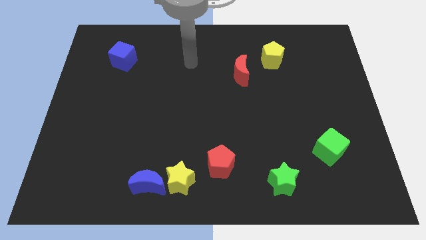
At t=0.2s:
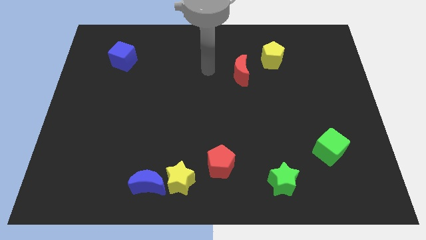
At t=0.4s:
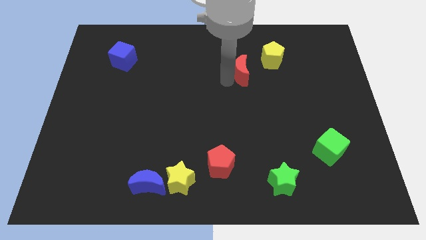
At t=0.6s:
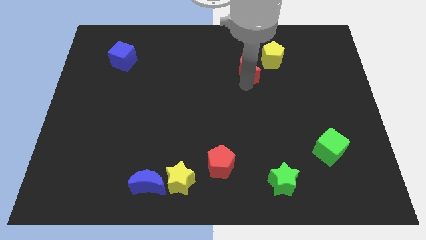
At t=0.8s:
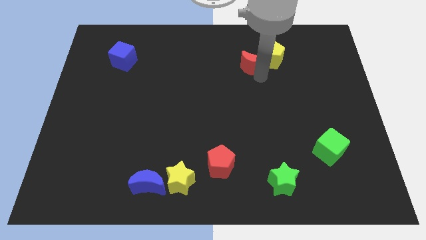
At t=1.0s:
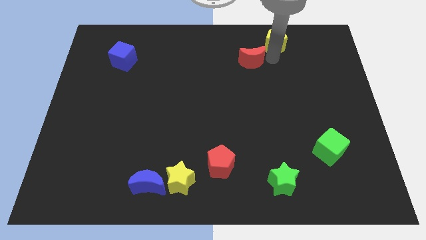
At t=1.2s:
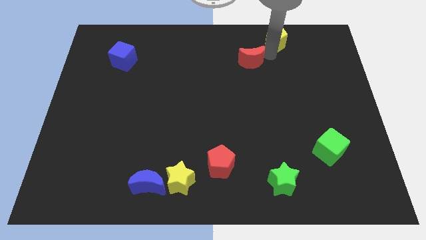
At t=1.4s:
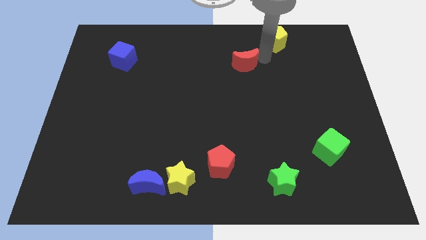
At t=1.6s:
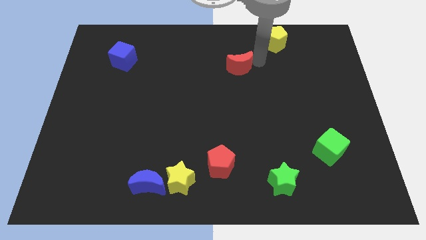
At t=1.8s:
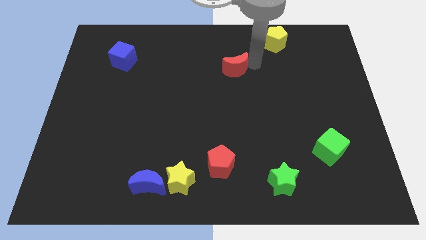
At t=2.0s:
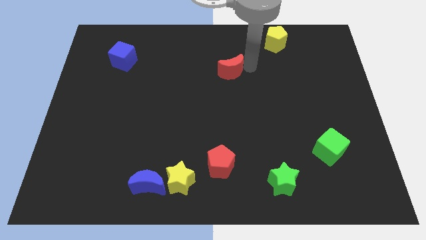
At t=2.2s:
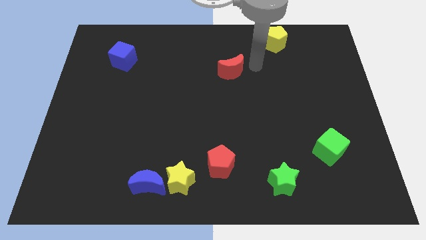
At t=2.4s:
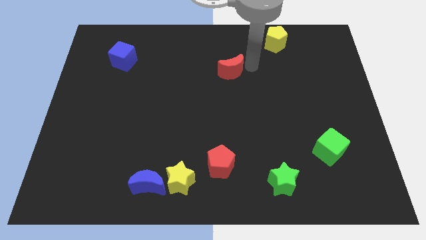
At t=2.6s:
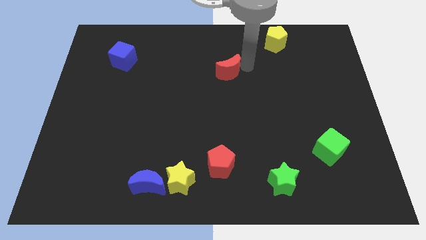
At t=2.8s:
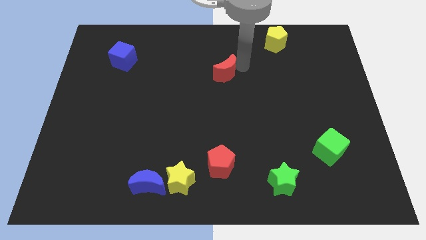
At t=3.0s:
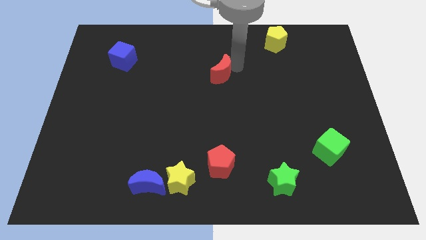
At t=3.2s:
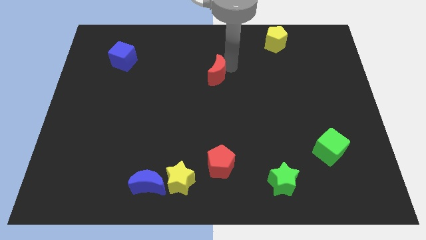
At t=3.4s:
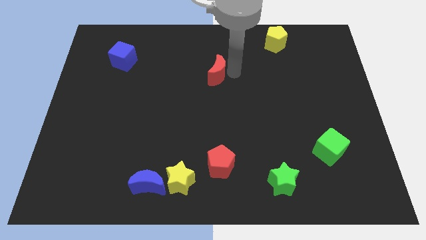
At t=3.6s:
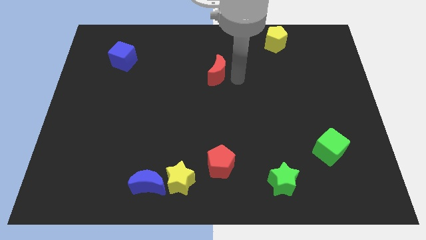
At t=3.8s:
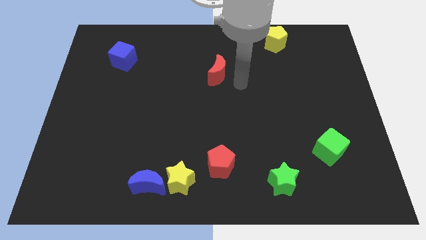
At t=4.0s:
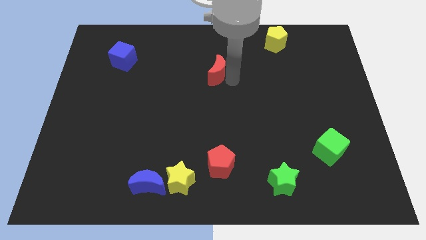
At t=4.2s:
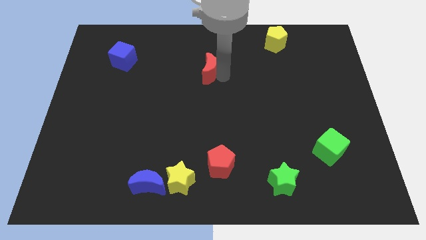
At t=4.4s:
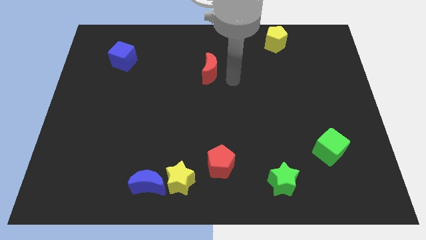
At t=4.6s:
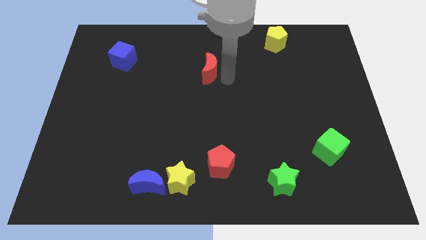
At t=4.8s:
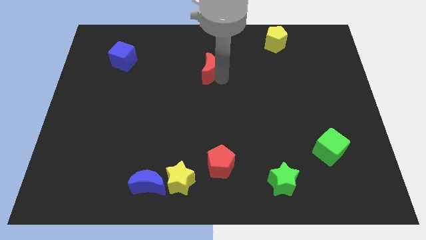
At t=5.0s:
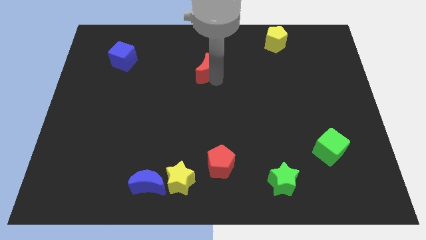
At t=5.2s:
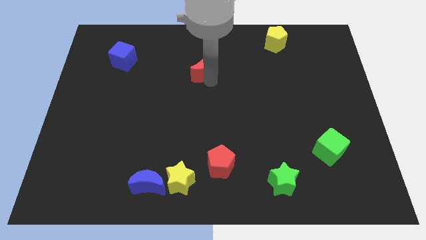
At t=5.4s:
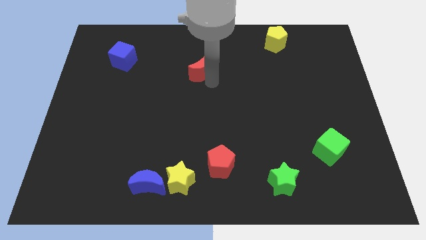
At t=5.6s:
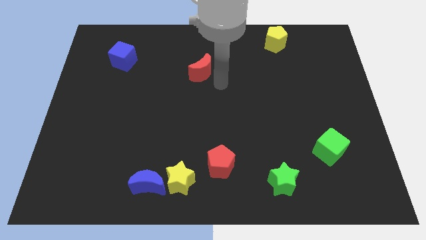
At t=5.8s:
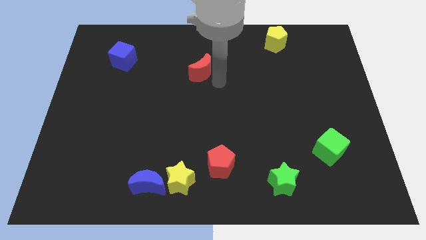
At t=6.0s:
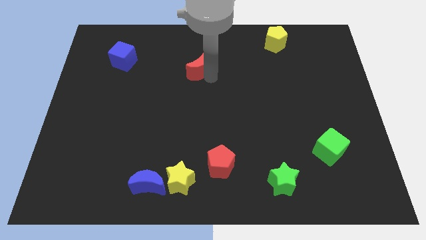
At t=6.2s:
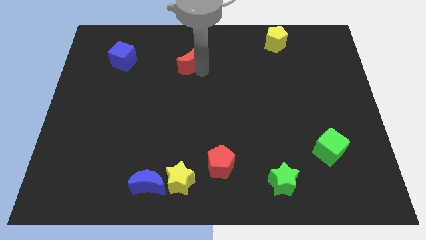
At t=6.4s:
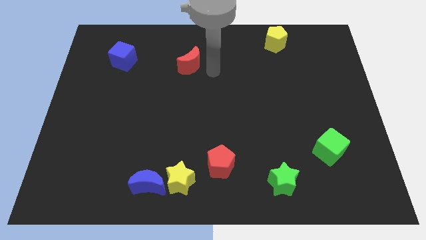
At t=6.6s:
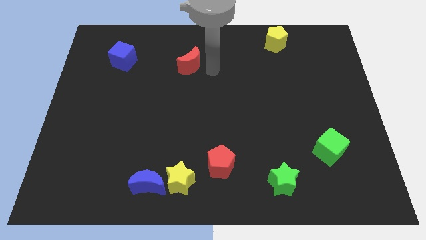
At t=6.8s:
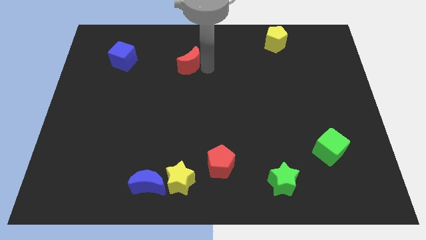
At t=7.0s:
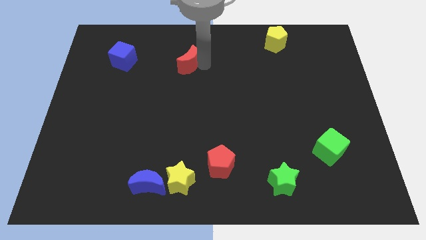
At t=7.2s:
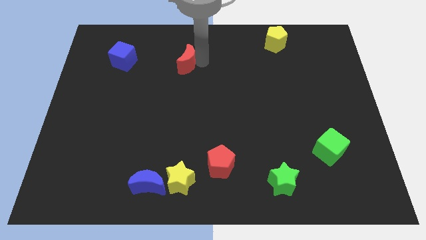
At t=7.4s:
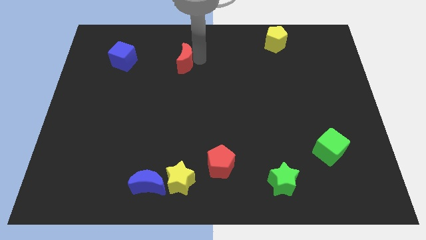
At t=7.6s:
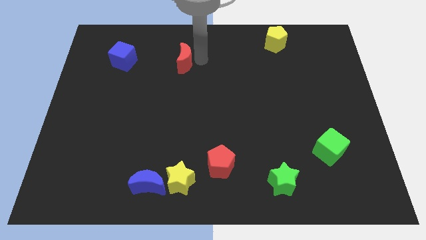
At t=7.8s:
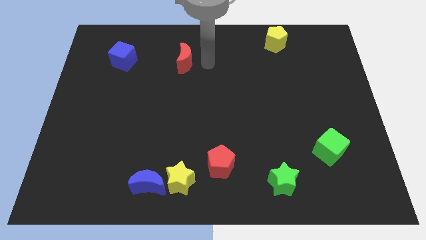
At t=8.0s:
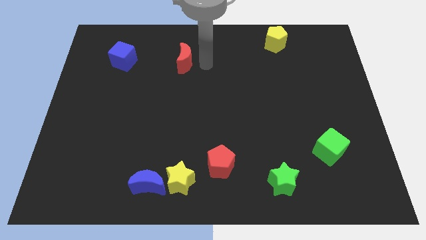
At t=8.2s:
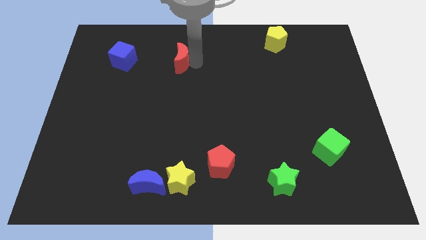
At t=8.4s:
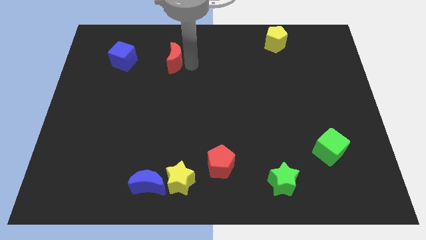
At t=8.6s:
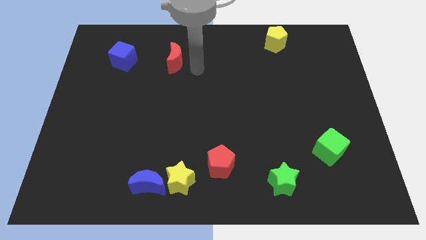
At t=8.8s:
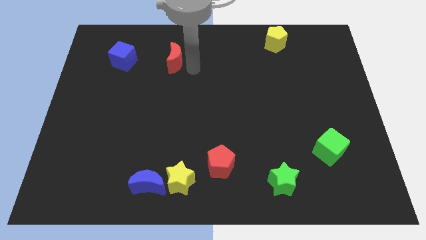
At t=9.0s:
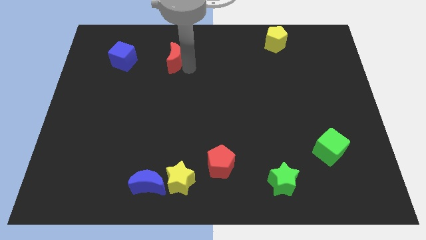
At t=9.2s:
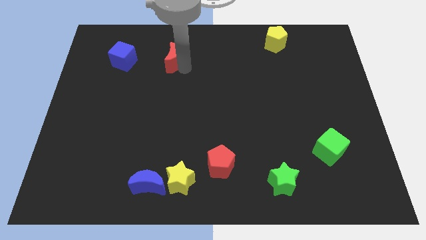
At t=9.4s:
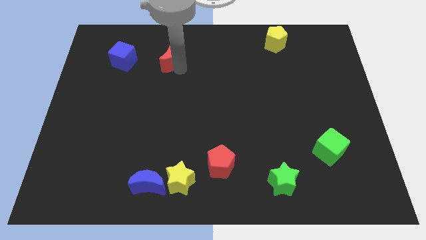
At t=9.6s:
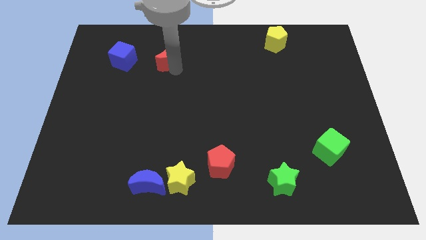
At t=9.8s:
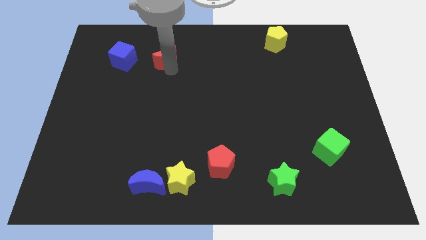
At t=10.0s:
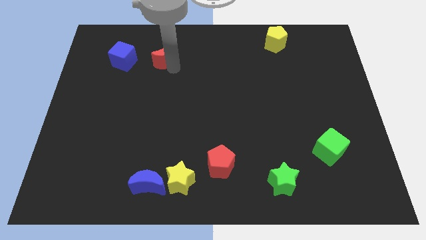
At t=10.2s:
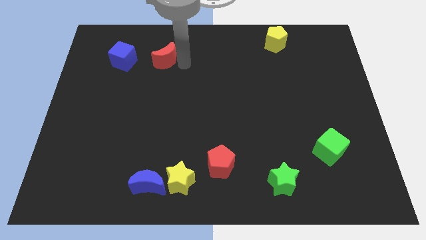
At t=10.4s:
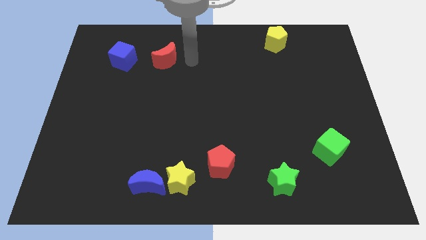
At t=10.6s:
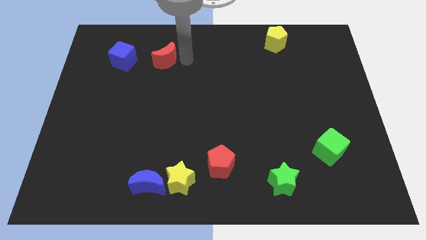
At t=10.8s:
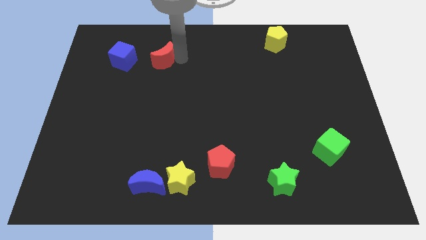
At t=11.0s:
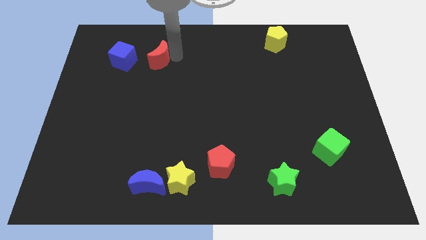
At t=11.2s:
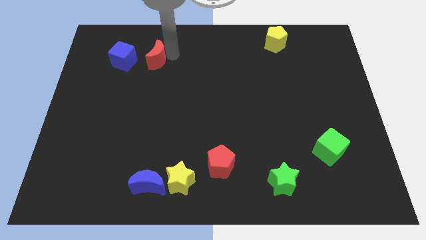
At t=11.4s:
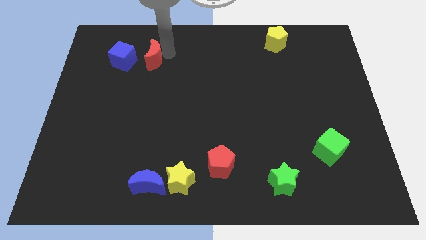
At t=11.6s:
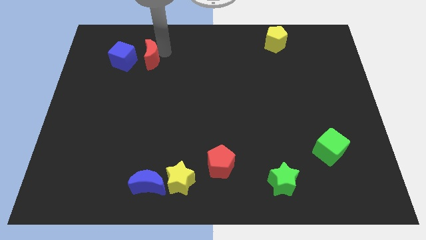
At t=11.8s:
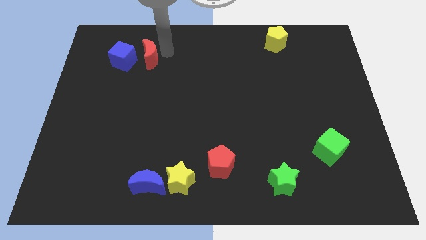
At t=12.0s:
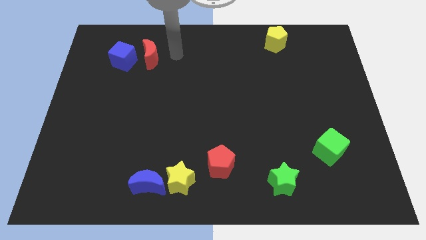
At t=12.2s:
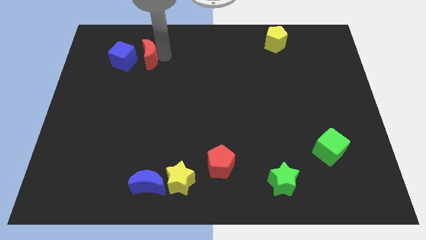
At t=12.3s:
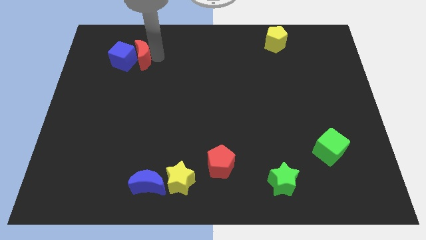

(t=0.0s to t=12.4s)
push the red moon close to the blue cube

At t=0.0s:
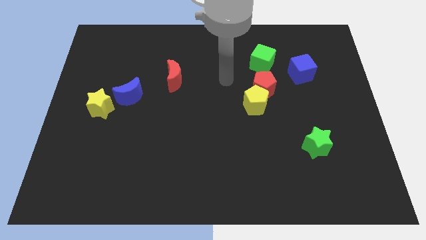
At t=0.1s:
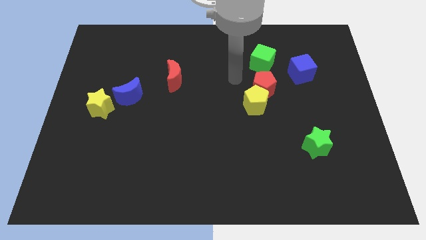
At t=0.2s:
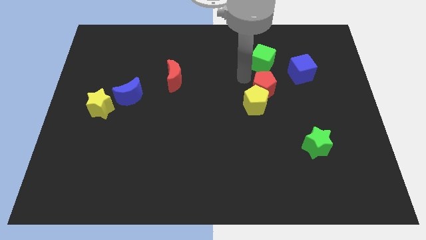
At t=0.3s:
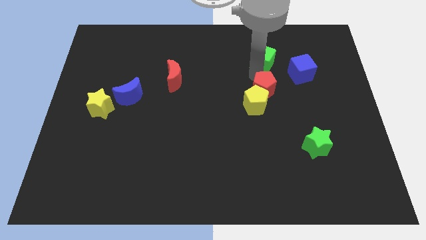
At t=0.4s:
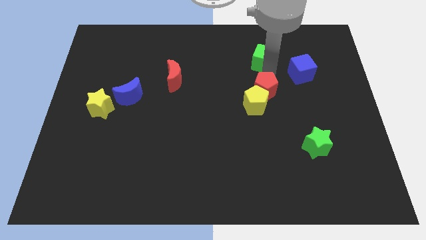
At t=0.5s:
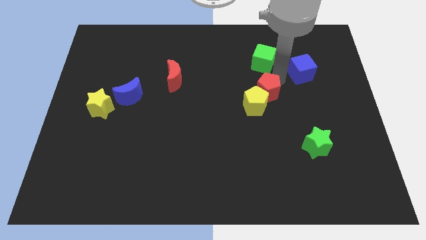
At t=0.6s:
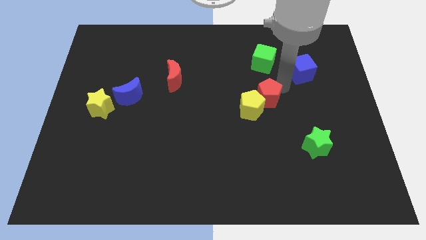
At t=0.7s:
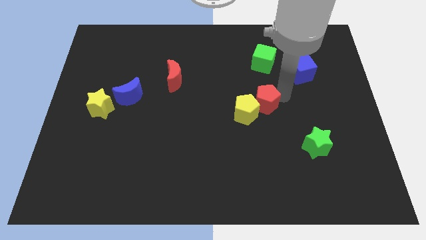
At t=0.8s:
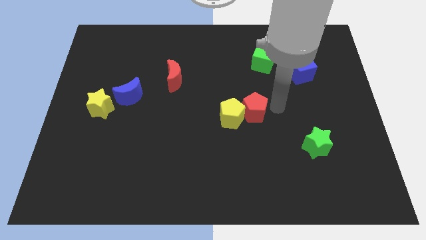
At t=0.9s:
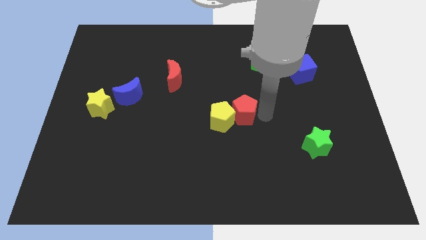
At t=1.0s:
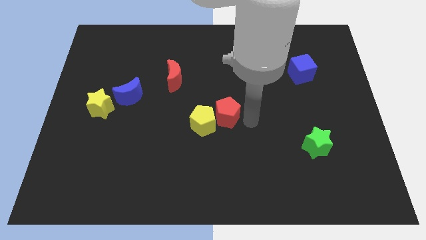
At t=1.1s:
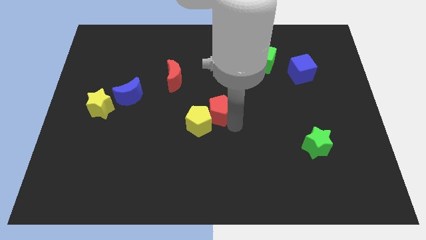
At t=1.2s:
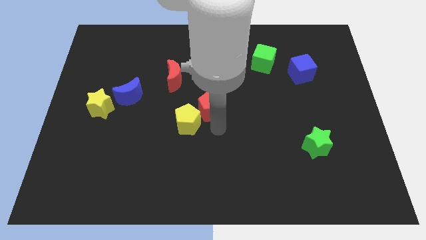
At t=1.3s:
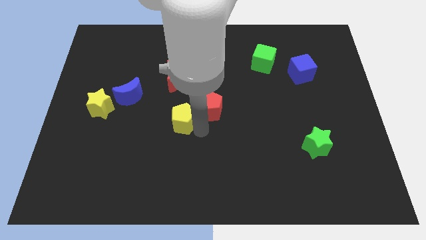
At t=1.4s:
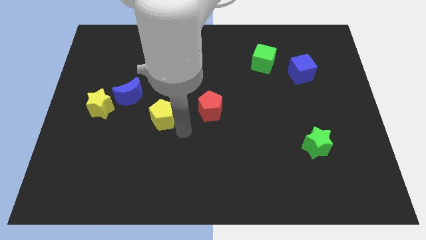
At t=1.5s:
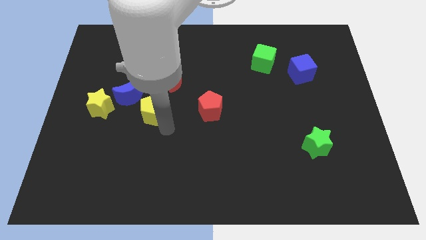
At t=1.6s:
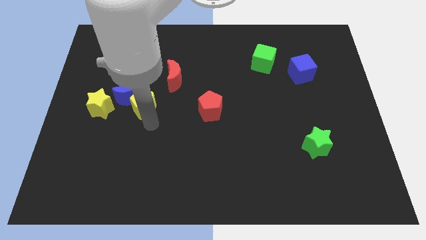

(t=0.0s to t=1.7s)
move the yellow pentagon to the blue moon
